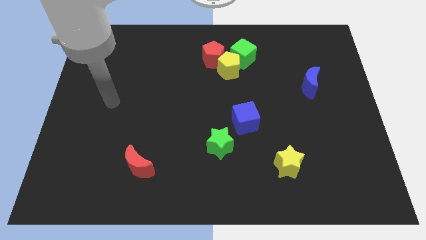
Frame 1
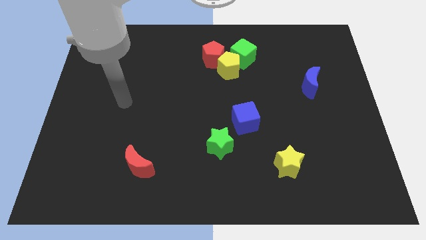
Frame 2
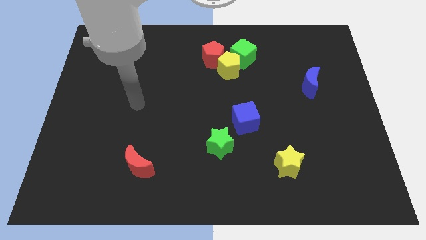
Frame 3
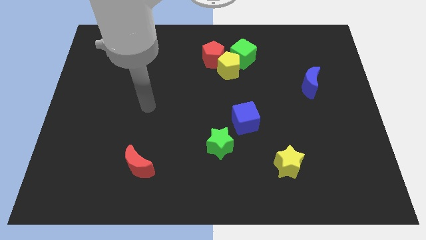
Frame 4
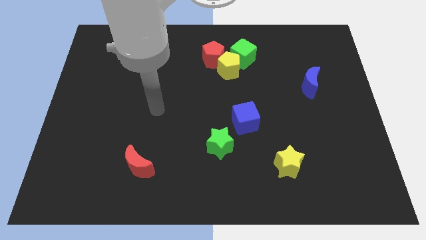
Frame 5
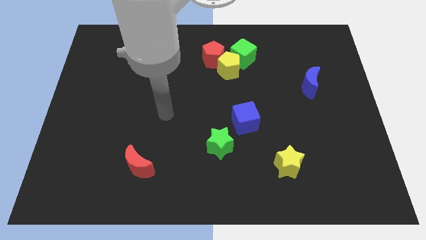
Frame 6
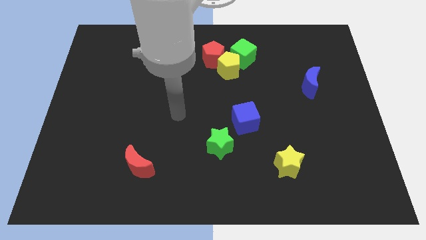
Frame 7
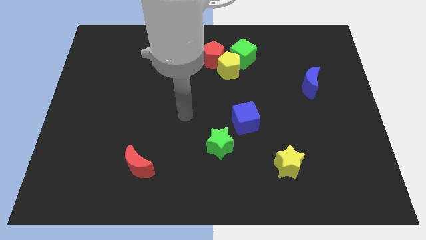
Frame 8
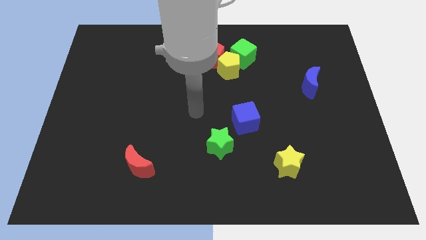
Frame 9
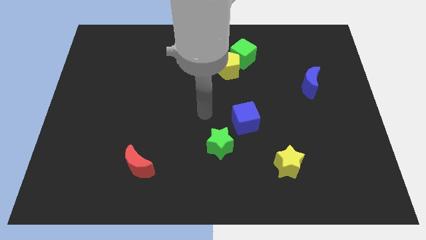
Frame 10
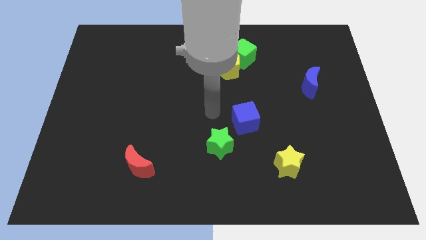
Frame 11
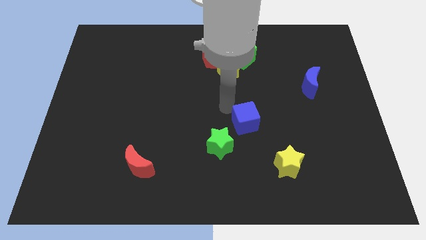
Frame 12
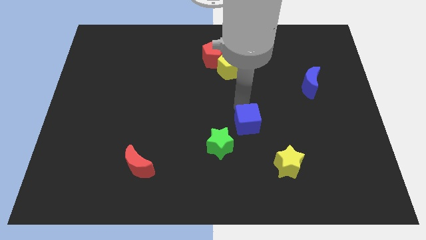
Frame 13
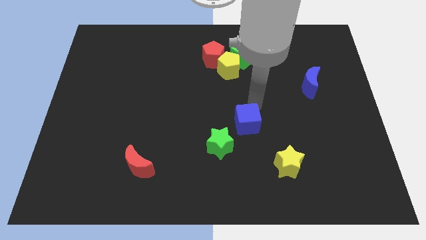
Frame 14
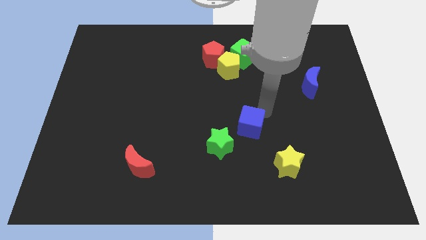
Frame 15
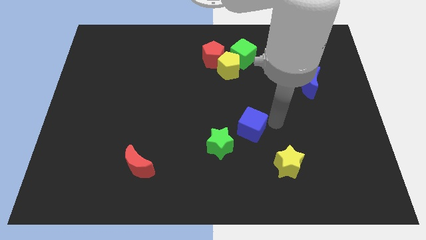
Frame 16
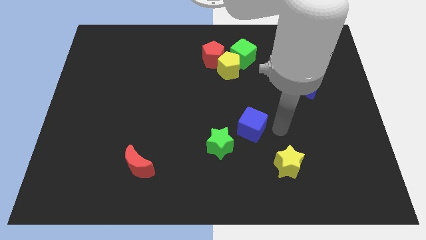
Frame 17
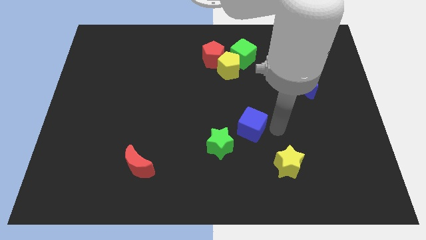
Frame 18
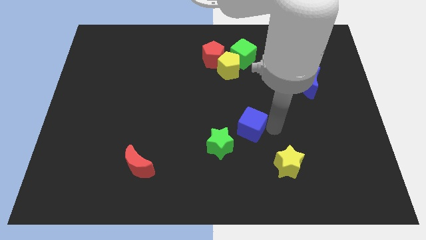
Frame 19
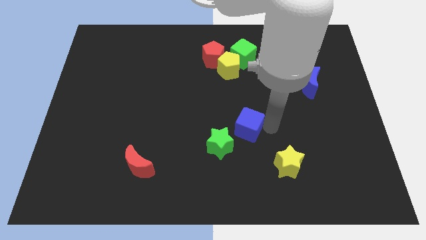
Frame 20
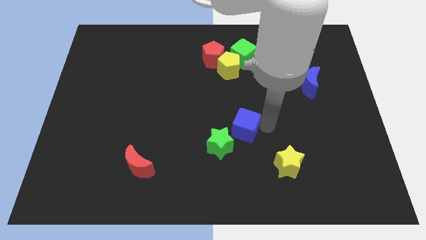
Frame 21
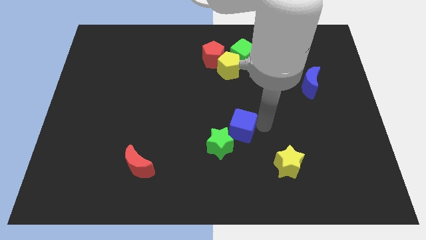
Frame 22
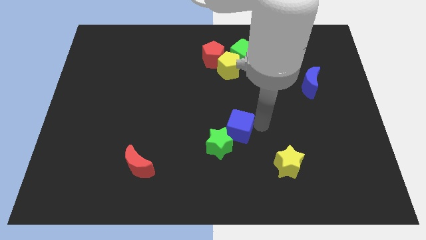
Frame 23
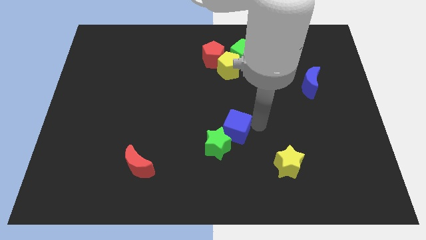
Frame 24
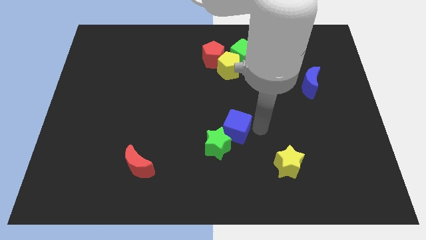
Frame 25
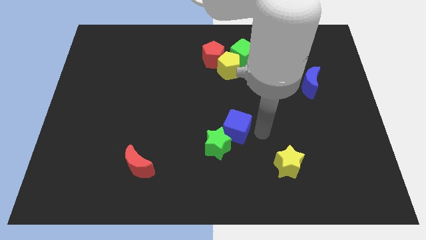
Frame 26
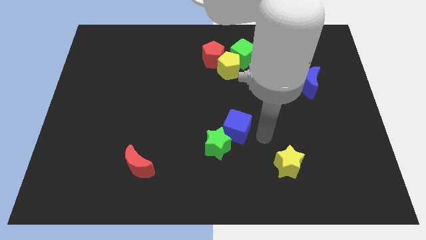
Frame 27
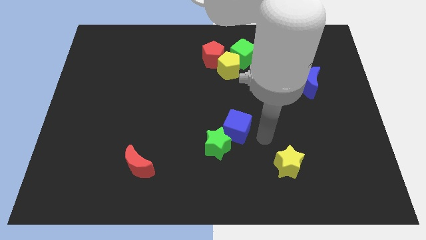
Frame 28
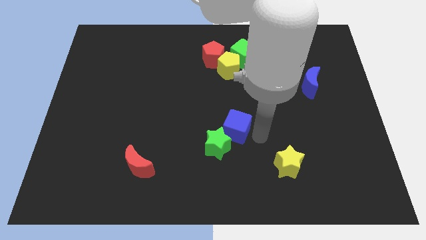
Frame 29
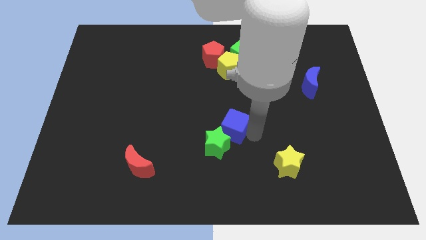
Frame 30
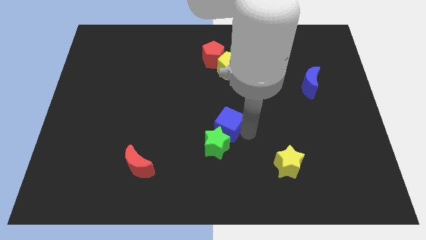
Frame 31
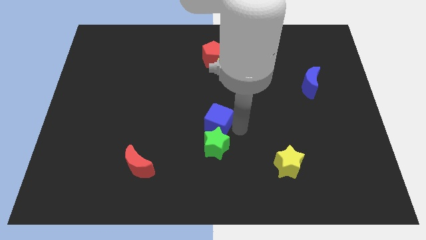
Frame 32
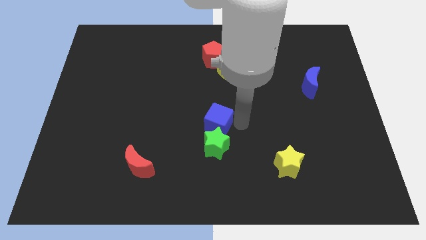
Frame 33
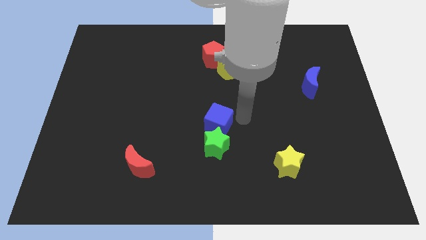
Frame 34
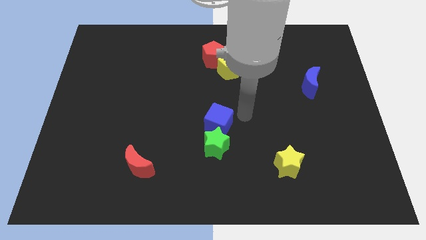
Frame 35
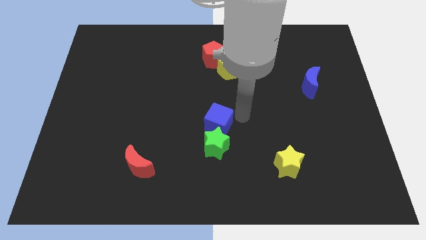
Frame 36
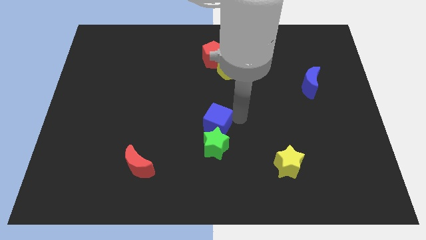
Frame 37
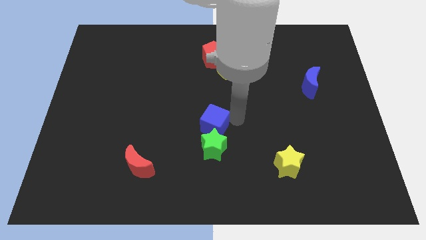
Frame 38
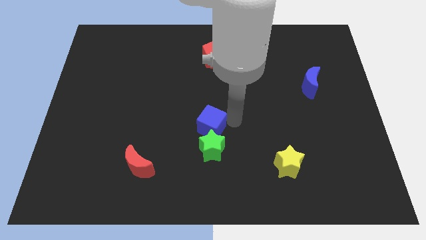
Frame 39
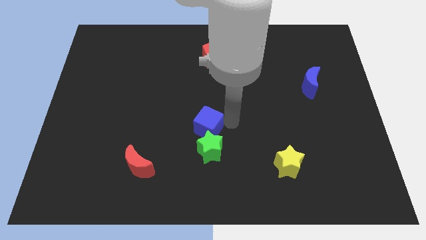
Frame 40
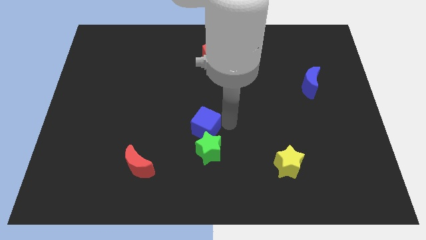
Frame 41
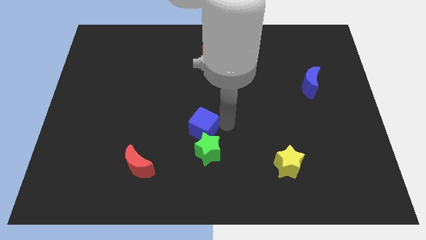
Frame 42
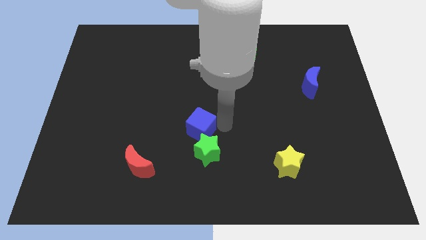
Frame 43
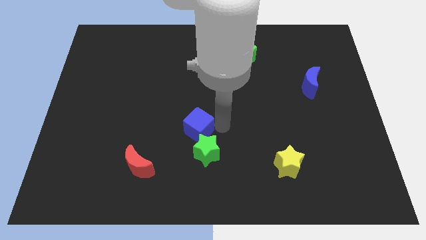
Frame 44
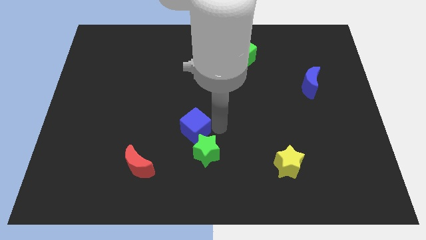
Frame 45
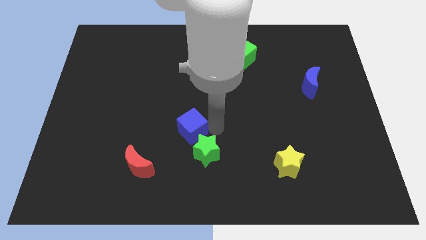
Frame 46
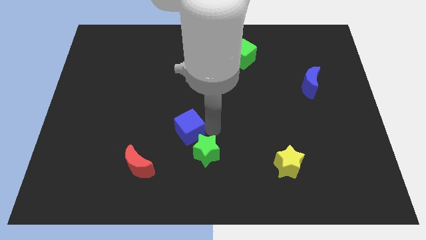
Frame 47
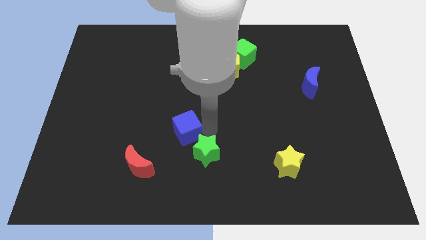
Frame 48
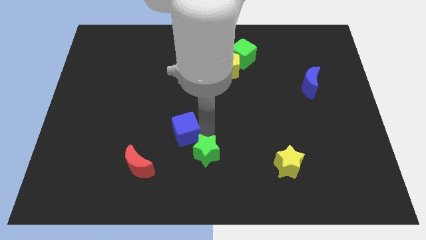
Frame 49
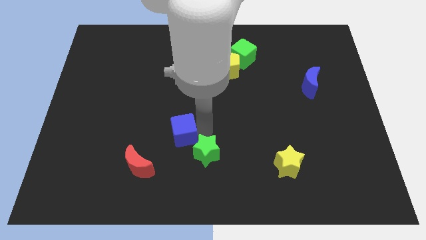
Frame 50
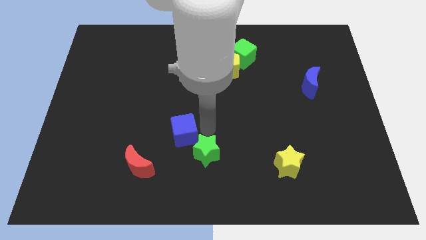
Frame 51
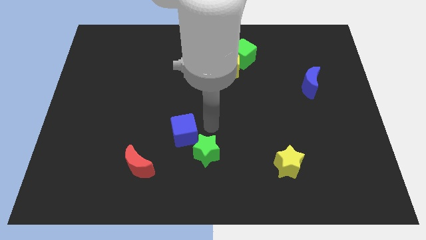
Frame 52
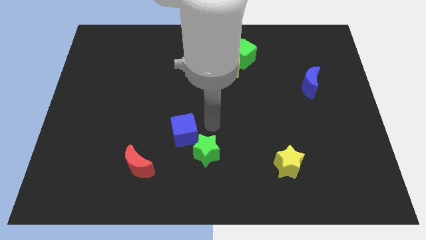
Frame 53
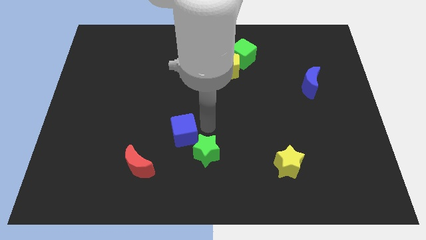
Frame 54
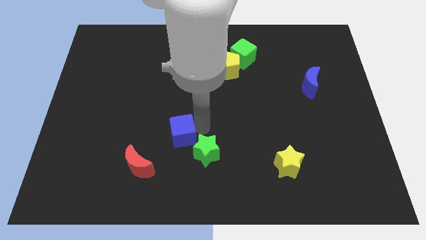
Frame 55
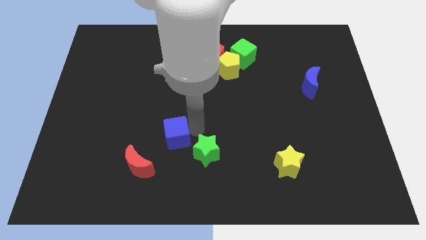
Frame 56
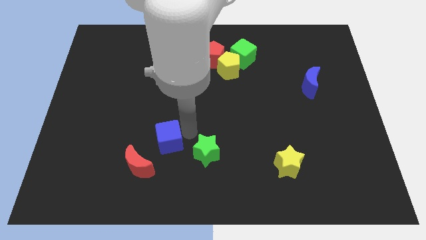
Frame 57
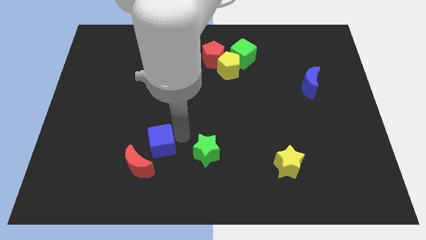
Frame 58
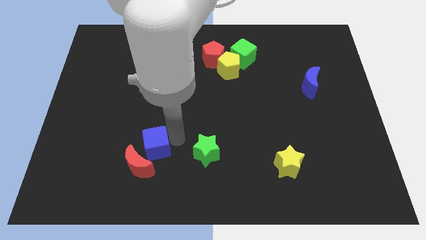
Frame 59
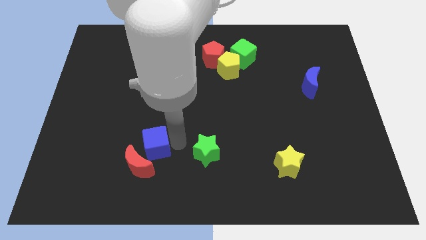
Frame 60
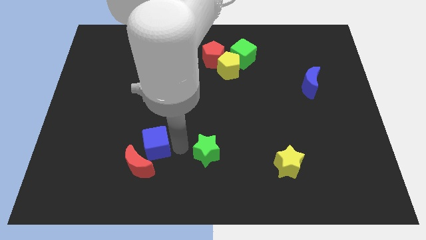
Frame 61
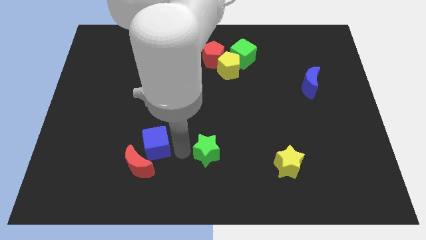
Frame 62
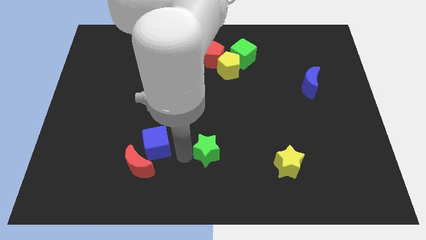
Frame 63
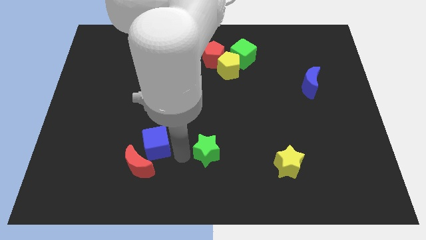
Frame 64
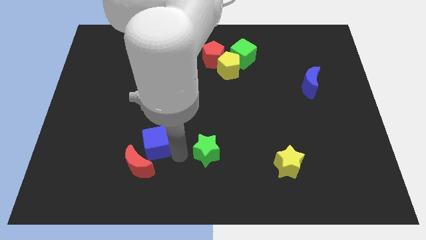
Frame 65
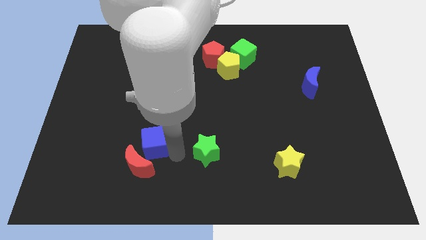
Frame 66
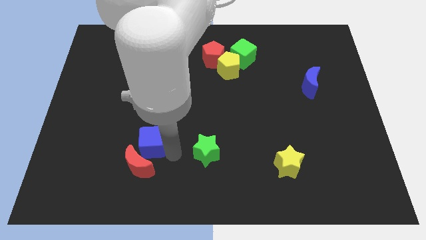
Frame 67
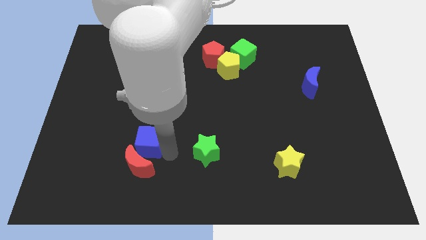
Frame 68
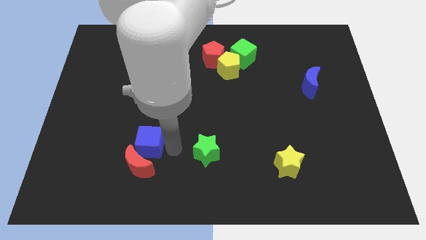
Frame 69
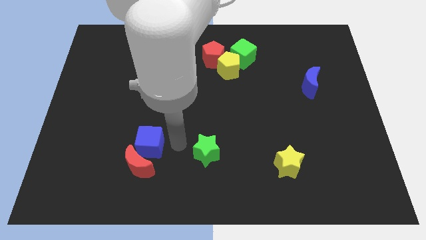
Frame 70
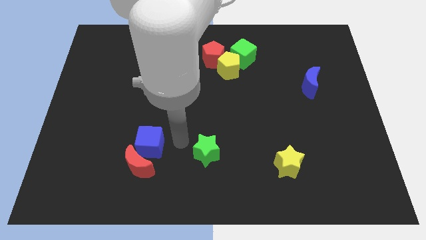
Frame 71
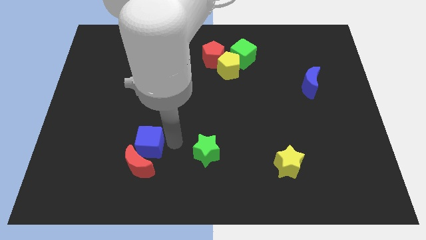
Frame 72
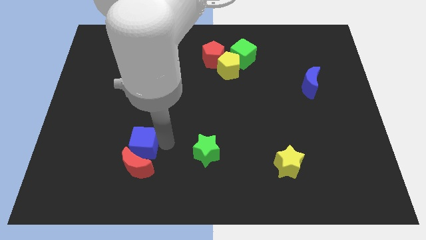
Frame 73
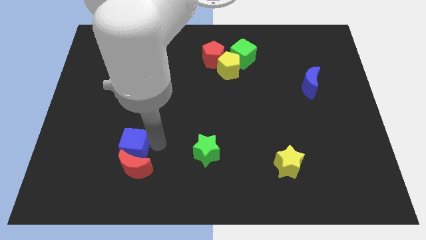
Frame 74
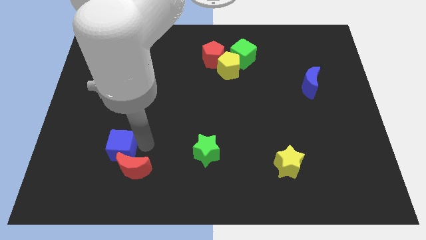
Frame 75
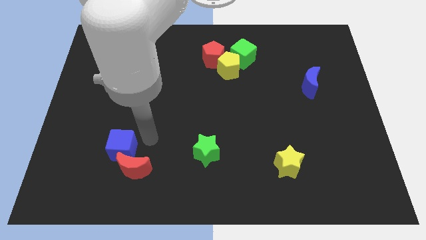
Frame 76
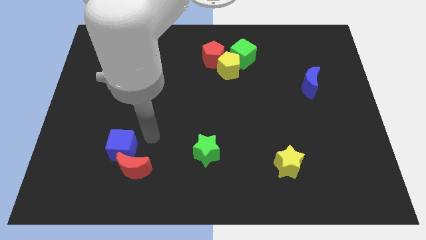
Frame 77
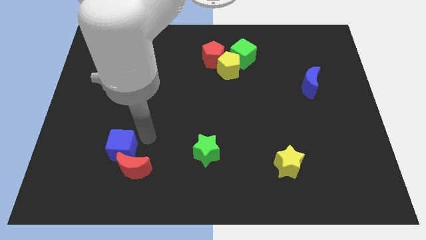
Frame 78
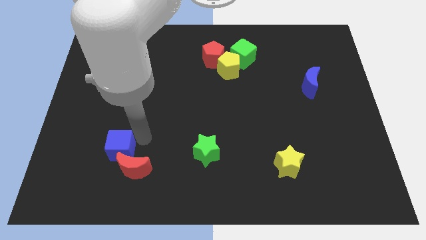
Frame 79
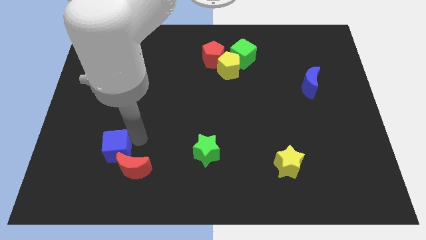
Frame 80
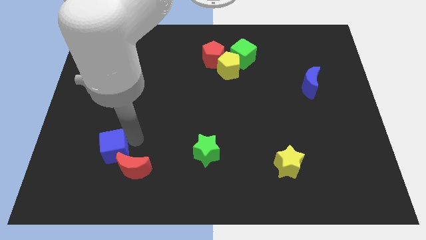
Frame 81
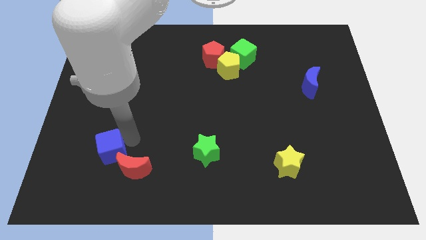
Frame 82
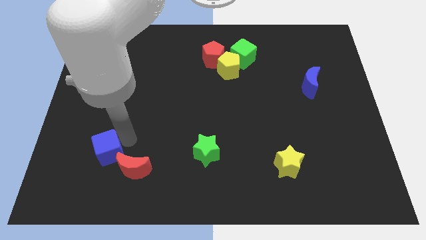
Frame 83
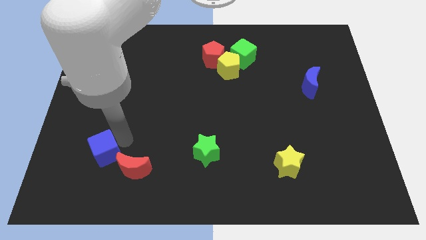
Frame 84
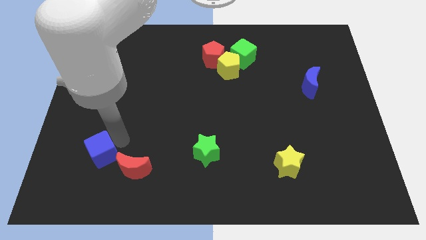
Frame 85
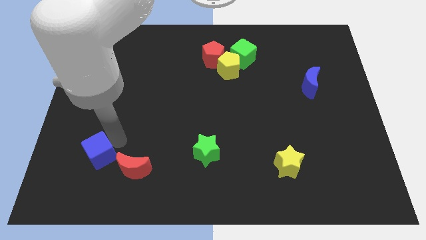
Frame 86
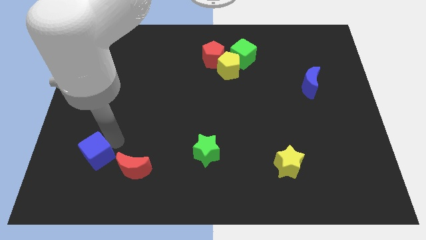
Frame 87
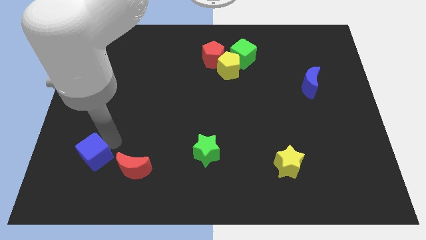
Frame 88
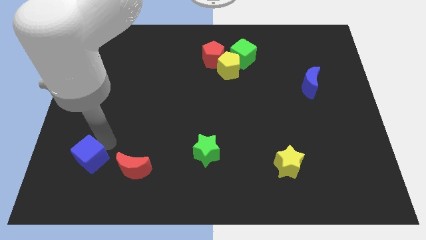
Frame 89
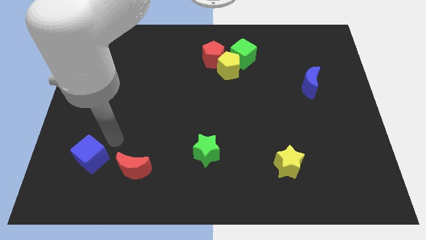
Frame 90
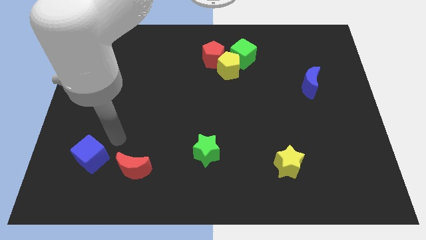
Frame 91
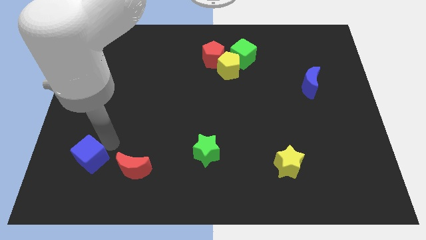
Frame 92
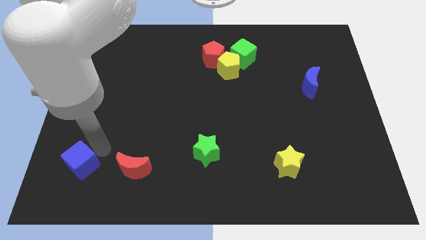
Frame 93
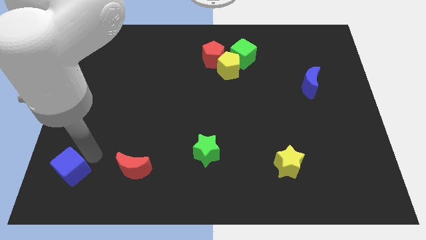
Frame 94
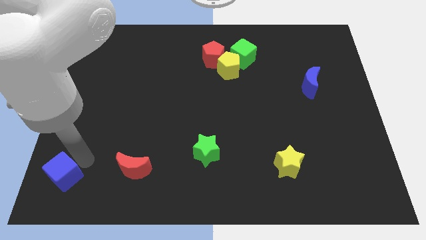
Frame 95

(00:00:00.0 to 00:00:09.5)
push the blue cube to the bottom left
